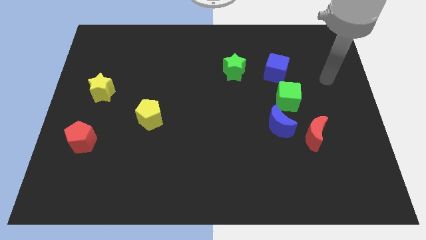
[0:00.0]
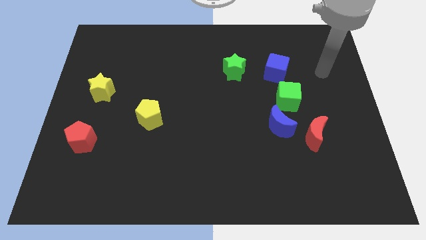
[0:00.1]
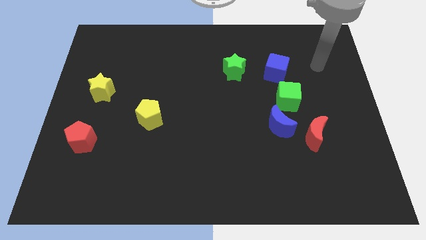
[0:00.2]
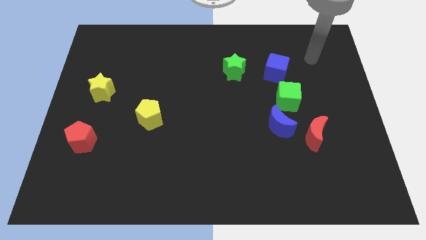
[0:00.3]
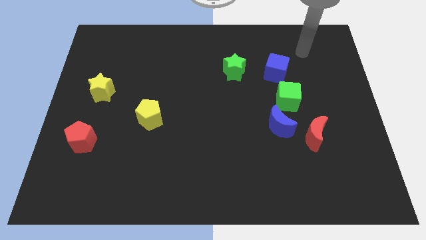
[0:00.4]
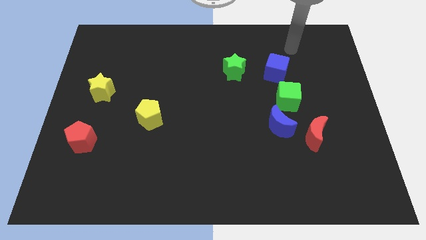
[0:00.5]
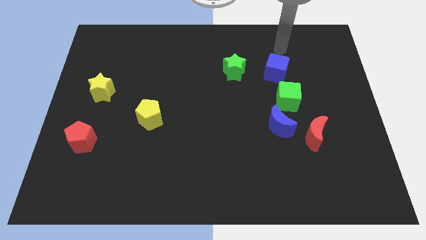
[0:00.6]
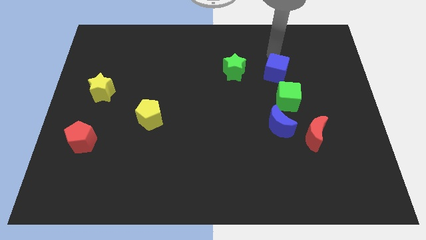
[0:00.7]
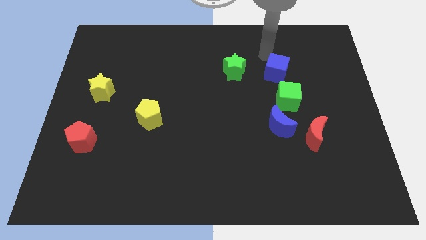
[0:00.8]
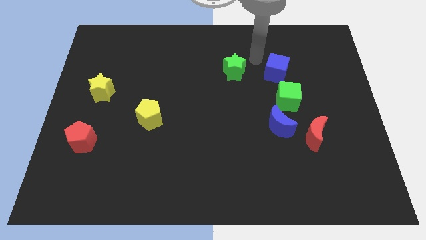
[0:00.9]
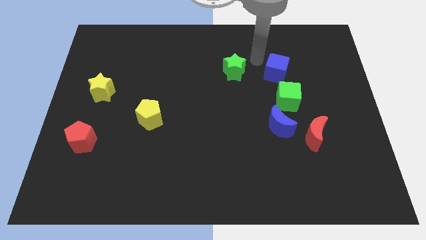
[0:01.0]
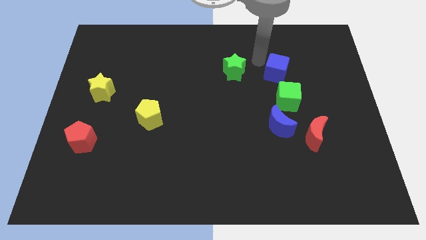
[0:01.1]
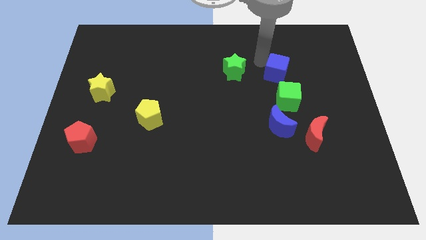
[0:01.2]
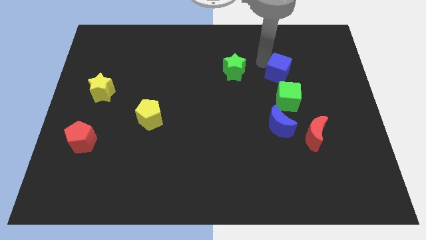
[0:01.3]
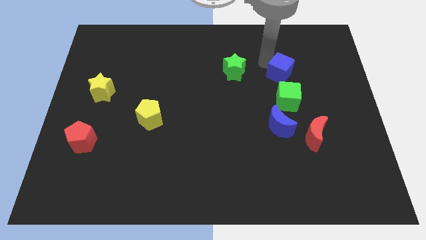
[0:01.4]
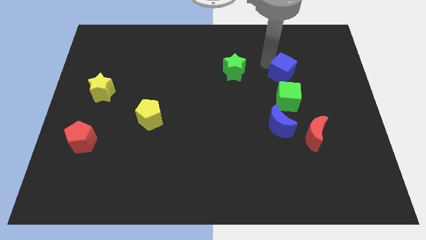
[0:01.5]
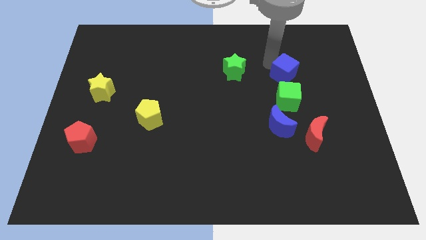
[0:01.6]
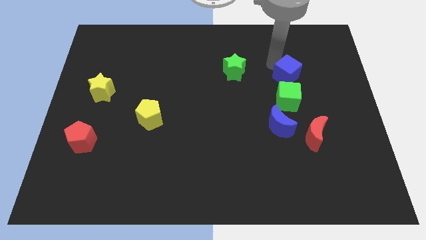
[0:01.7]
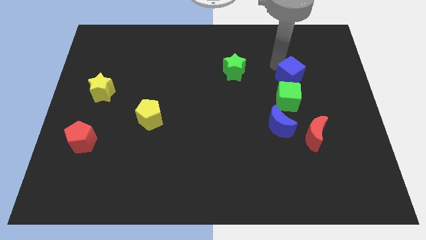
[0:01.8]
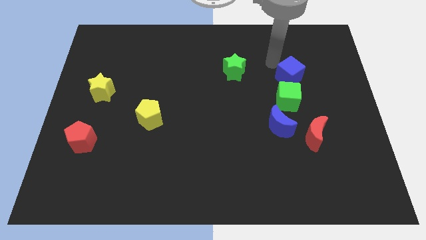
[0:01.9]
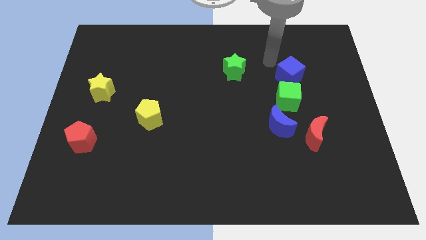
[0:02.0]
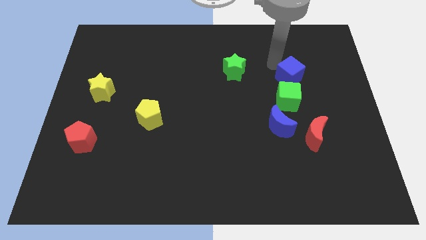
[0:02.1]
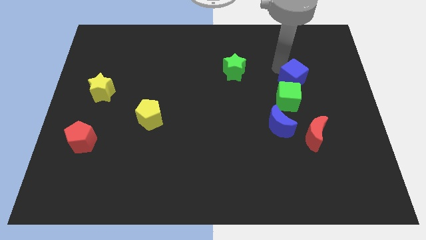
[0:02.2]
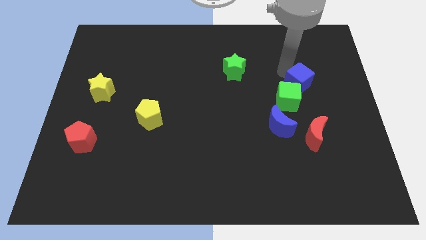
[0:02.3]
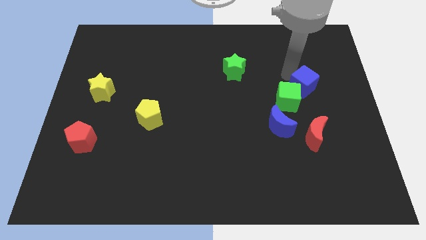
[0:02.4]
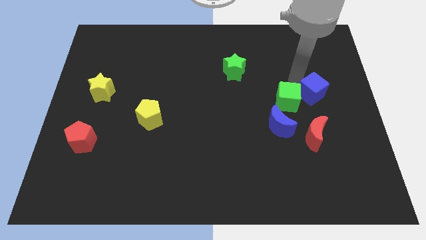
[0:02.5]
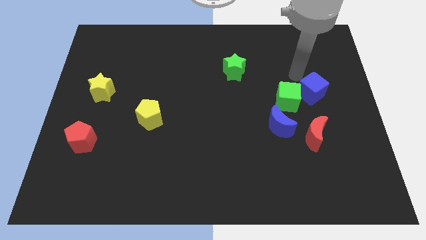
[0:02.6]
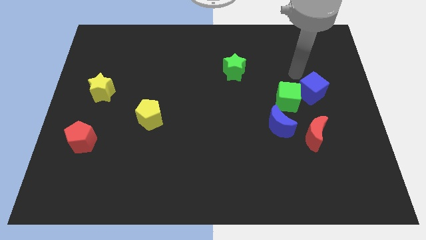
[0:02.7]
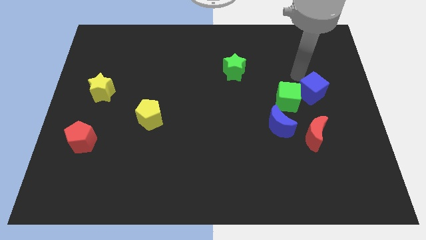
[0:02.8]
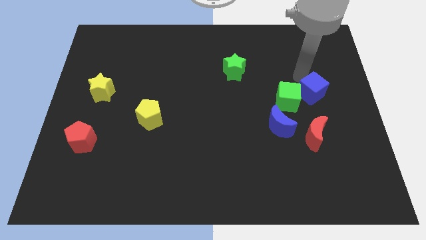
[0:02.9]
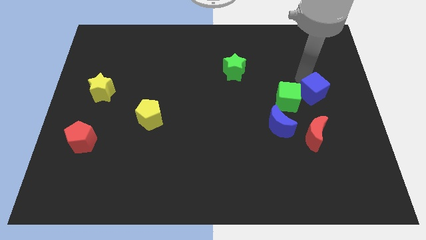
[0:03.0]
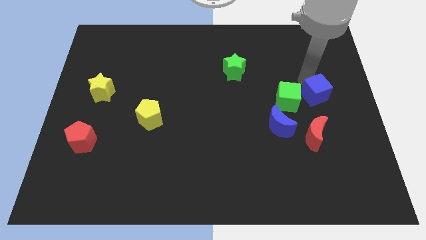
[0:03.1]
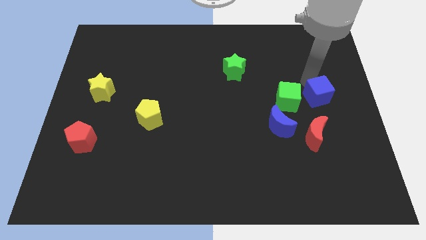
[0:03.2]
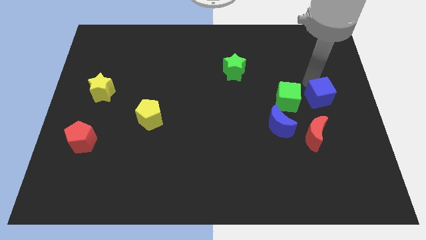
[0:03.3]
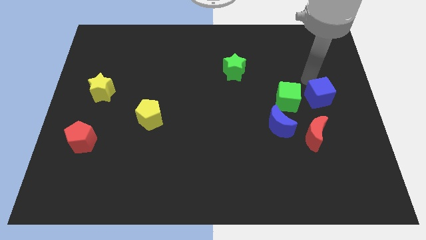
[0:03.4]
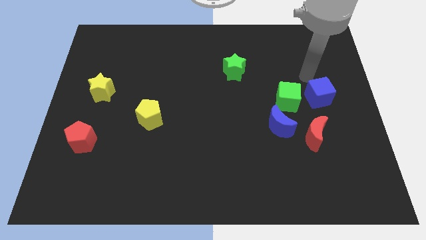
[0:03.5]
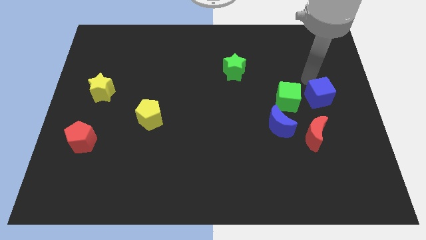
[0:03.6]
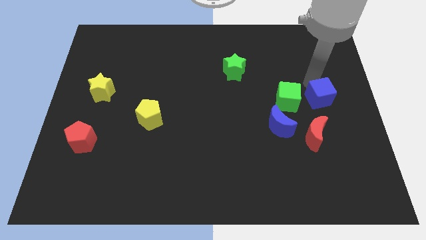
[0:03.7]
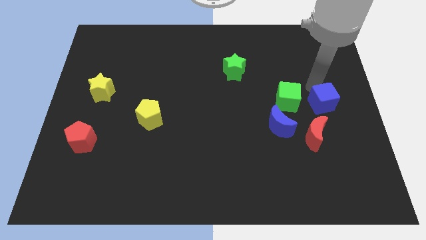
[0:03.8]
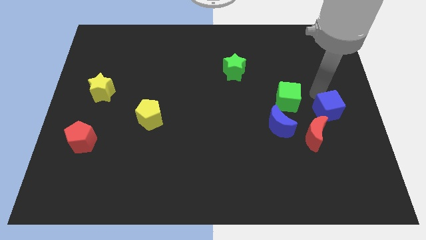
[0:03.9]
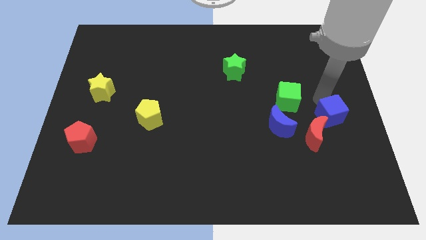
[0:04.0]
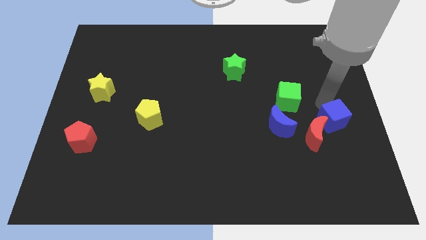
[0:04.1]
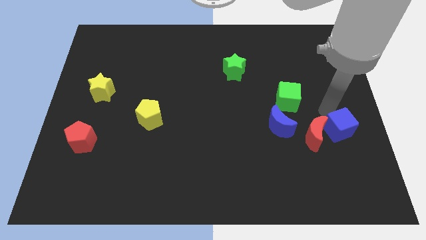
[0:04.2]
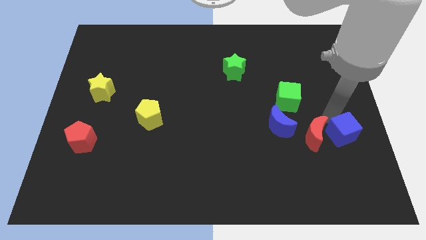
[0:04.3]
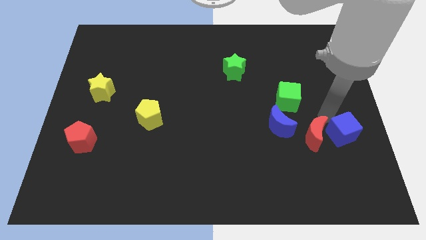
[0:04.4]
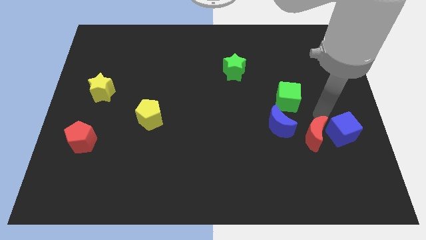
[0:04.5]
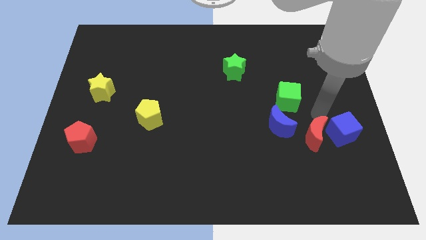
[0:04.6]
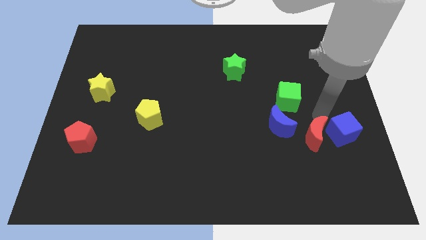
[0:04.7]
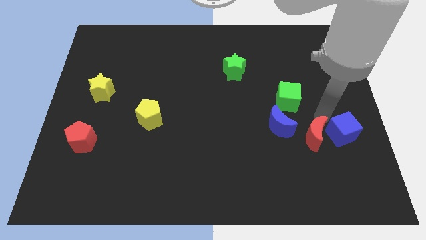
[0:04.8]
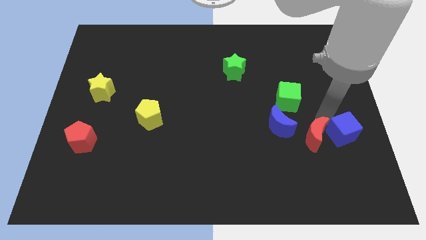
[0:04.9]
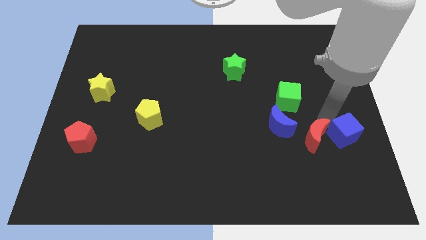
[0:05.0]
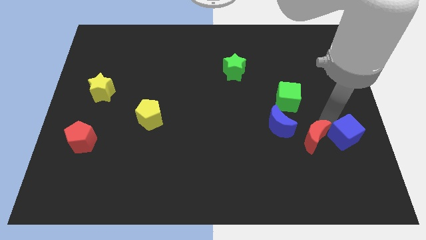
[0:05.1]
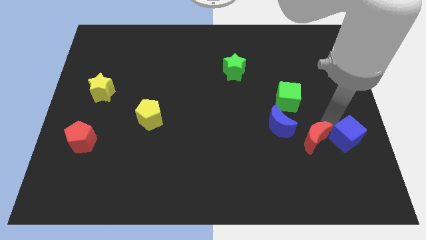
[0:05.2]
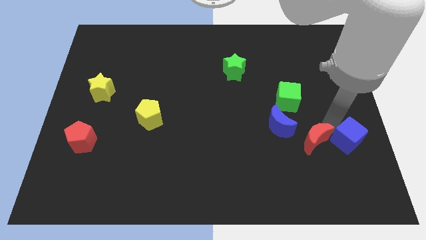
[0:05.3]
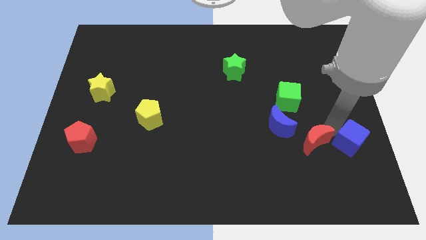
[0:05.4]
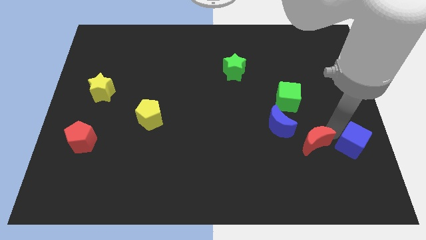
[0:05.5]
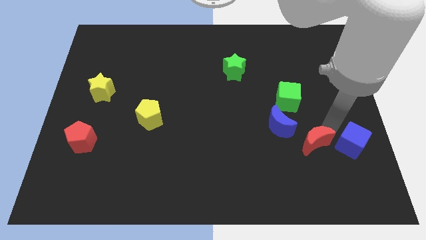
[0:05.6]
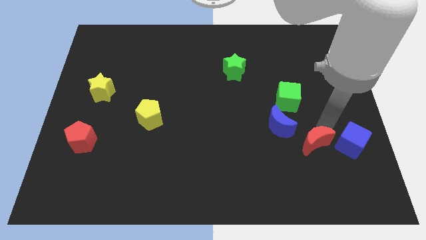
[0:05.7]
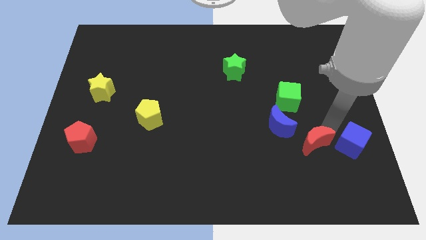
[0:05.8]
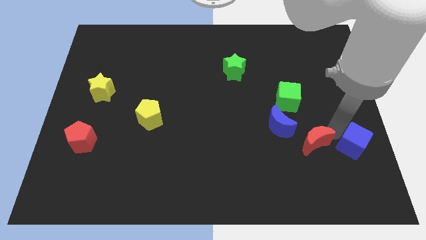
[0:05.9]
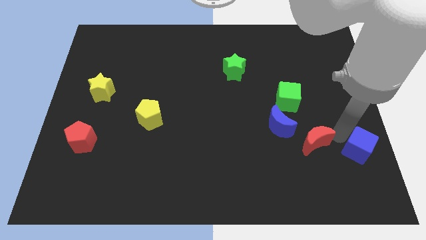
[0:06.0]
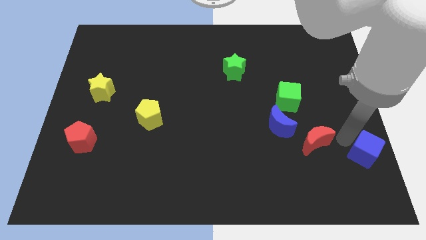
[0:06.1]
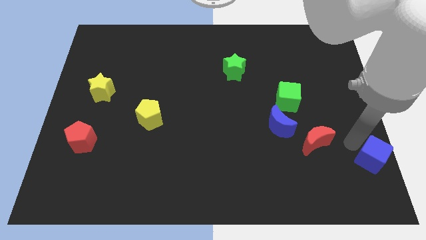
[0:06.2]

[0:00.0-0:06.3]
put the blue cube to the lower right corner
